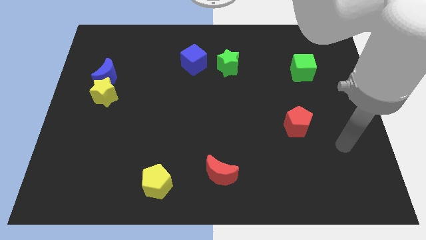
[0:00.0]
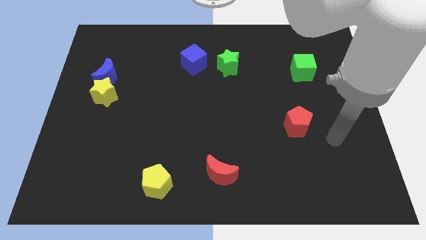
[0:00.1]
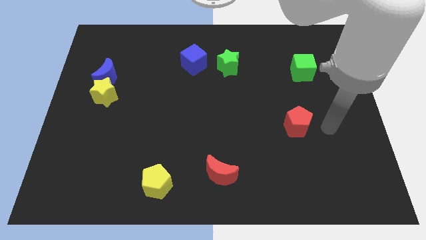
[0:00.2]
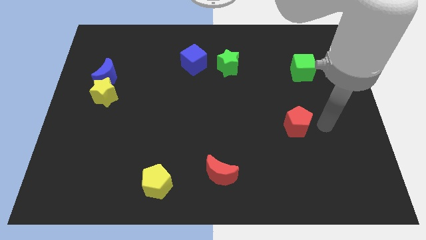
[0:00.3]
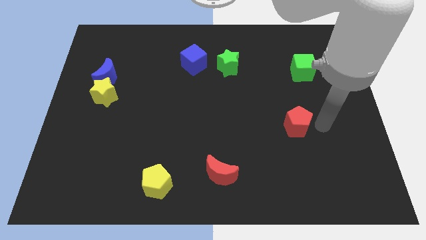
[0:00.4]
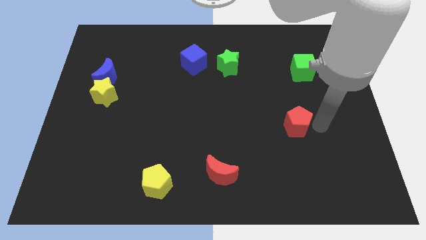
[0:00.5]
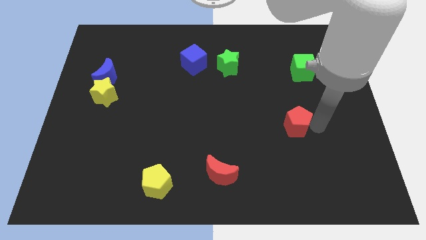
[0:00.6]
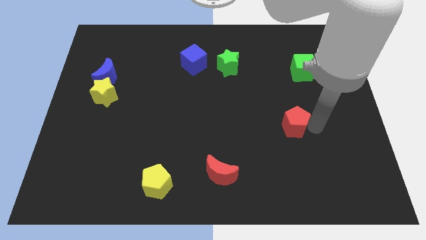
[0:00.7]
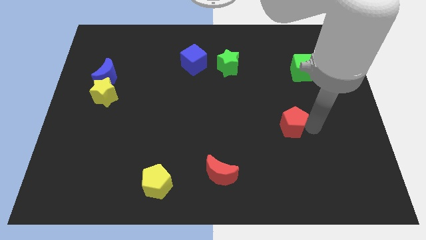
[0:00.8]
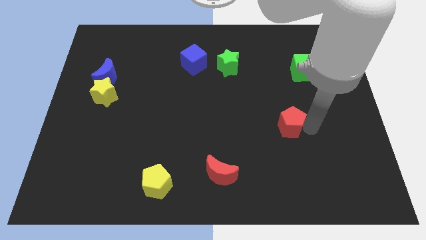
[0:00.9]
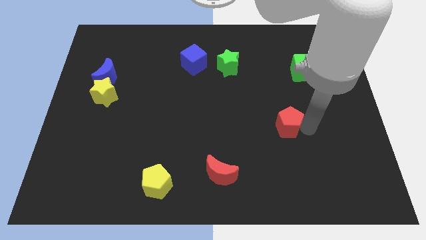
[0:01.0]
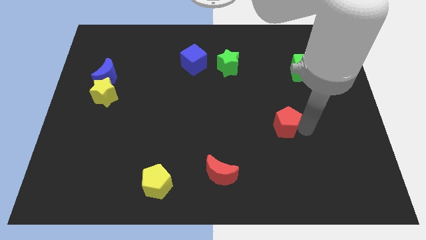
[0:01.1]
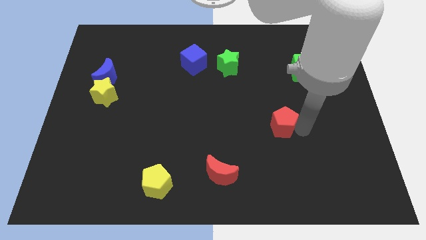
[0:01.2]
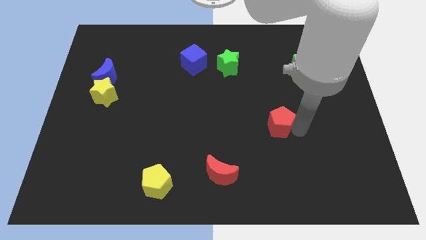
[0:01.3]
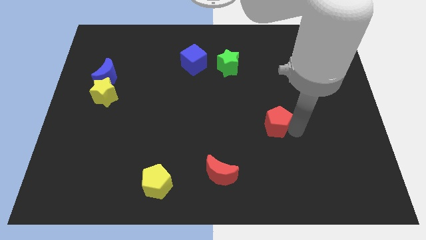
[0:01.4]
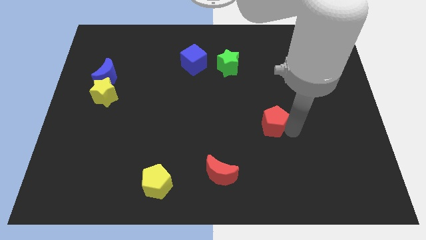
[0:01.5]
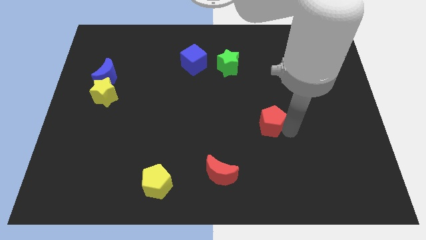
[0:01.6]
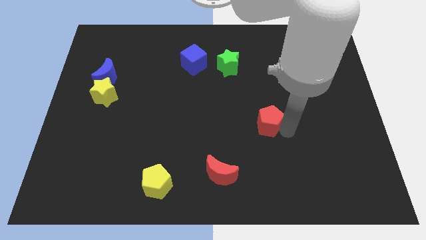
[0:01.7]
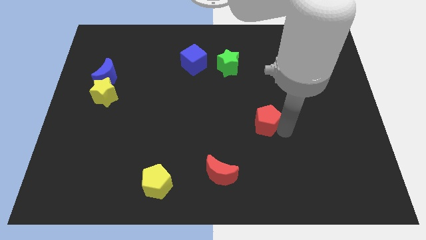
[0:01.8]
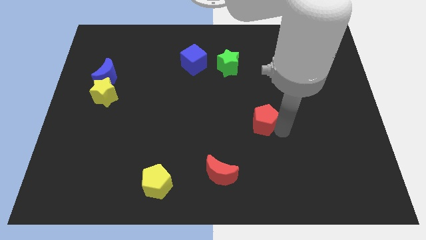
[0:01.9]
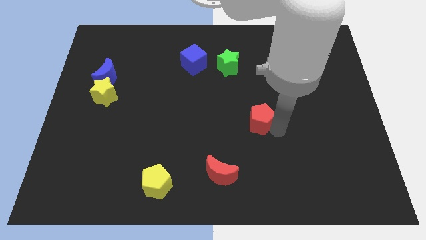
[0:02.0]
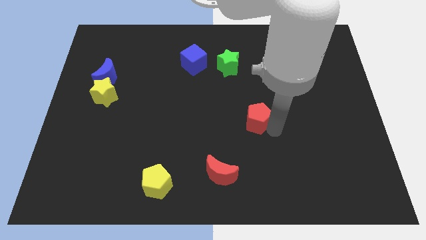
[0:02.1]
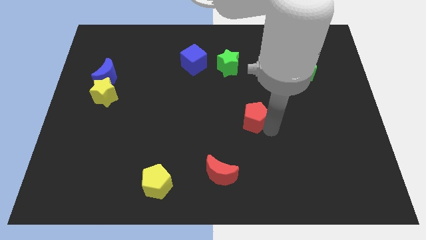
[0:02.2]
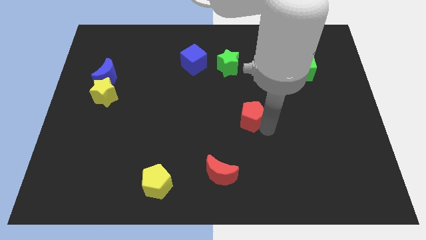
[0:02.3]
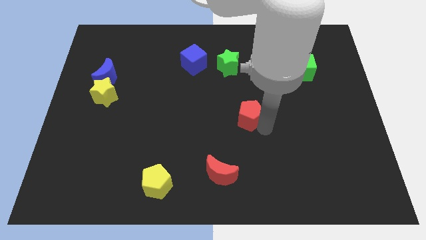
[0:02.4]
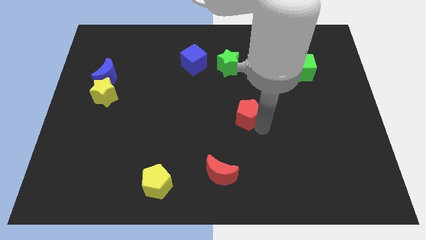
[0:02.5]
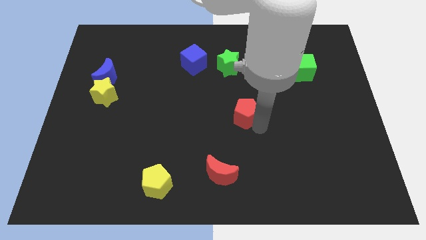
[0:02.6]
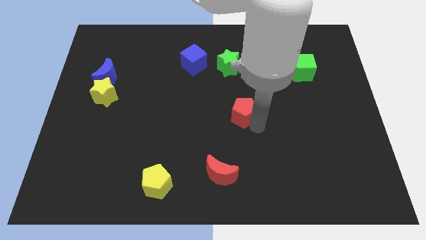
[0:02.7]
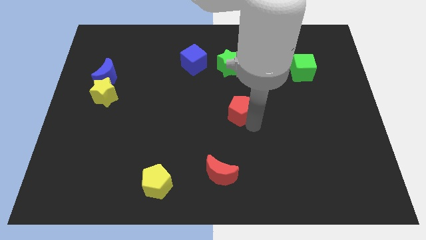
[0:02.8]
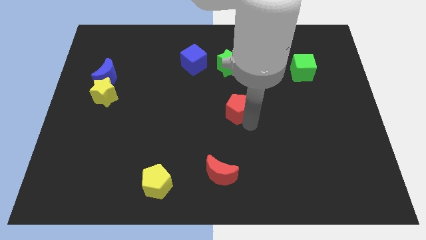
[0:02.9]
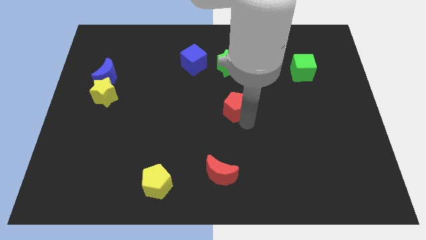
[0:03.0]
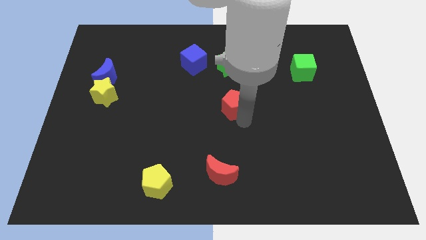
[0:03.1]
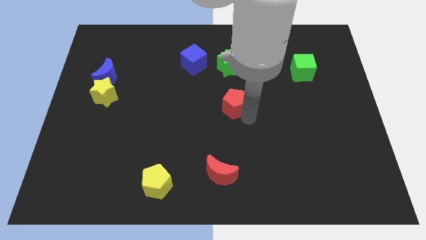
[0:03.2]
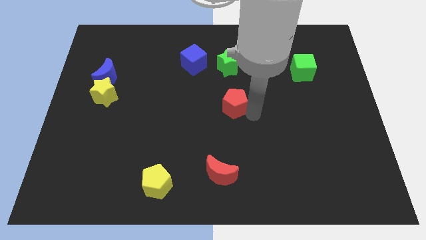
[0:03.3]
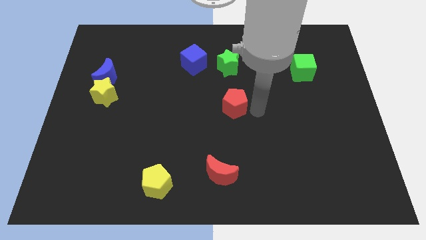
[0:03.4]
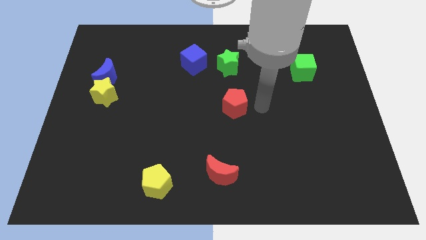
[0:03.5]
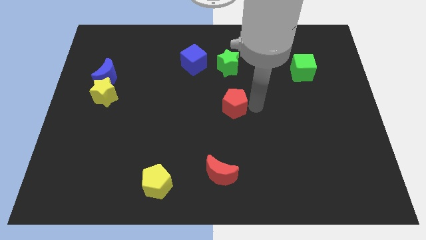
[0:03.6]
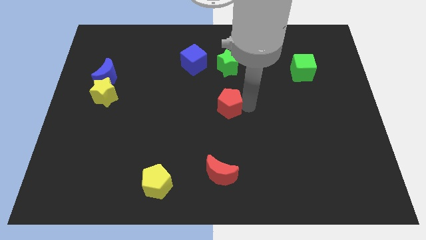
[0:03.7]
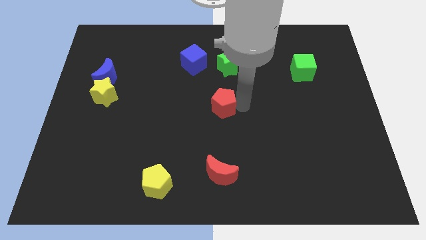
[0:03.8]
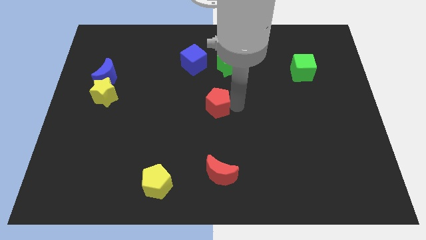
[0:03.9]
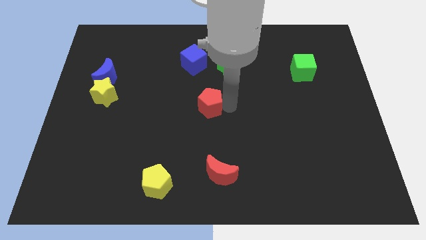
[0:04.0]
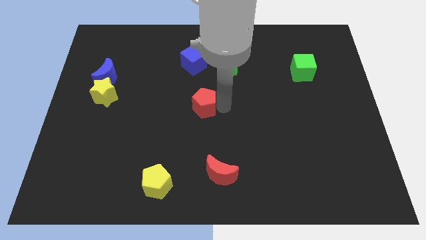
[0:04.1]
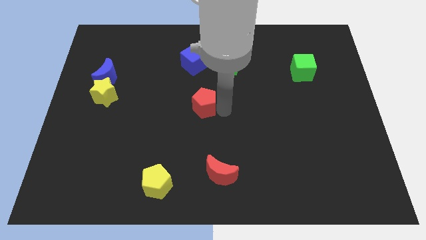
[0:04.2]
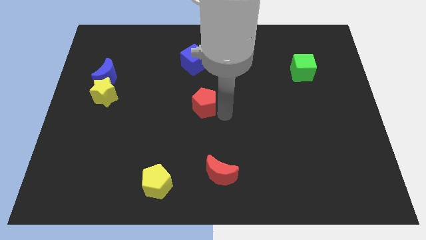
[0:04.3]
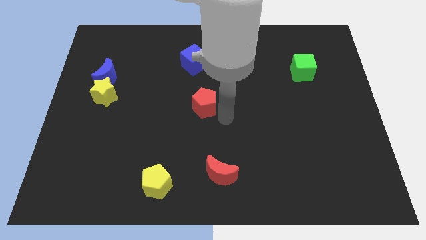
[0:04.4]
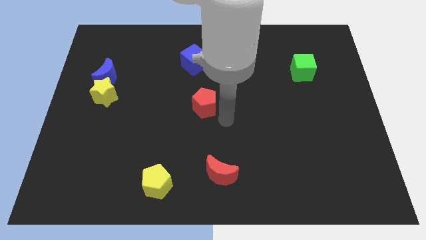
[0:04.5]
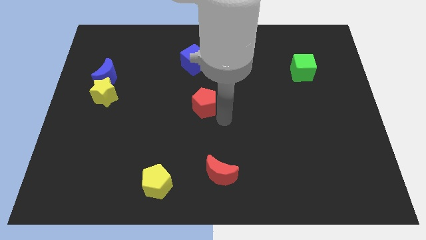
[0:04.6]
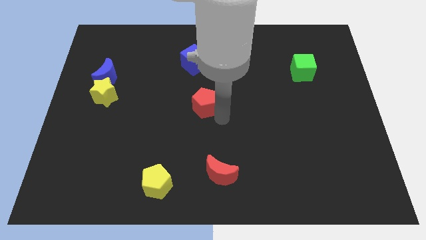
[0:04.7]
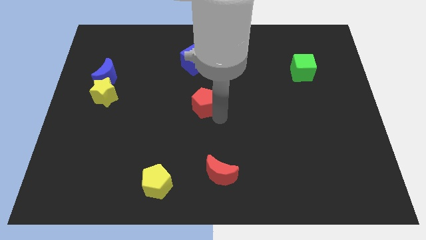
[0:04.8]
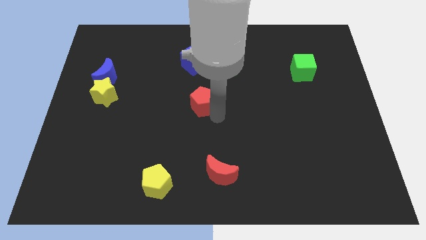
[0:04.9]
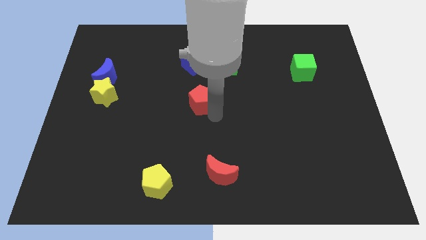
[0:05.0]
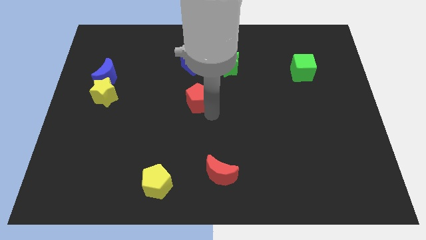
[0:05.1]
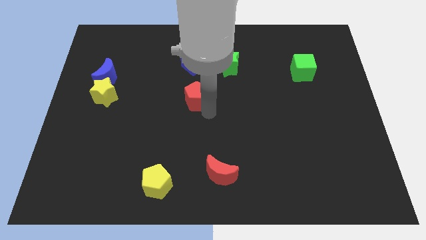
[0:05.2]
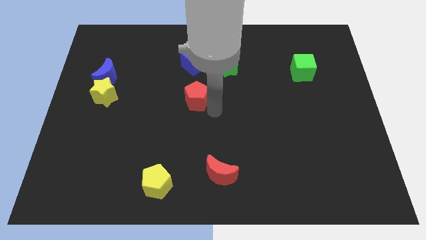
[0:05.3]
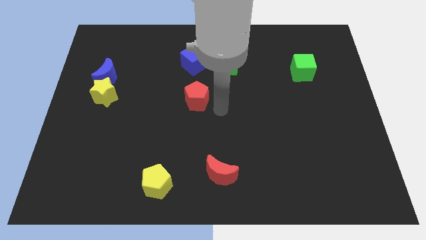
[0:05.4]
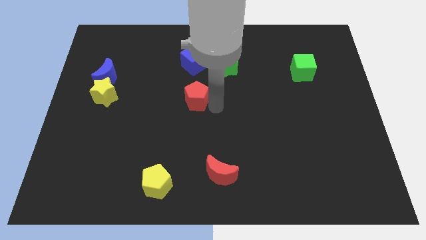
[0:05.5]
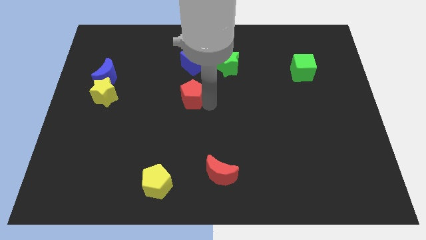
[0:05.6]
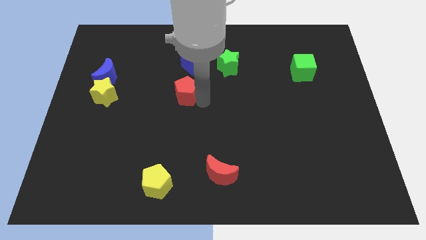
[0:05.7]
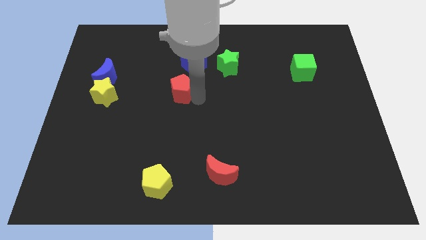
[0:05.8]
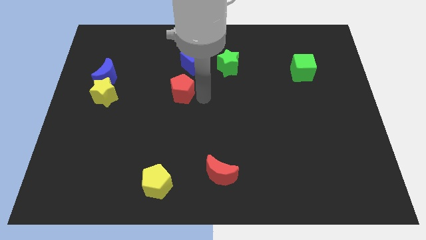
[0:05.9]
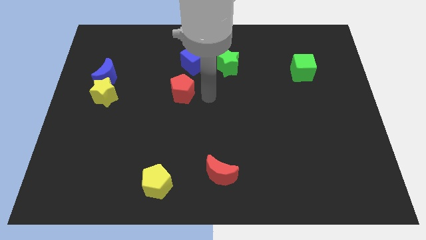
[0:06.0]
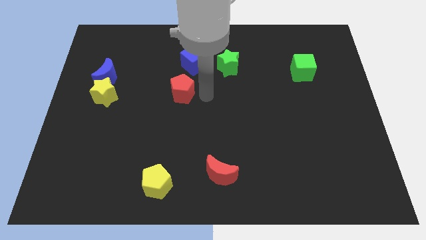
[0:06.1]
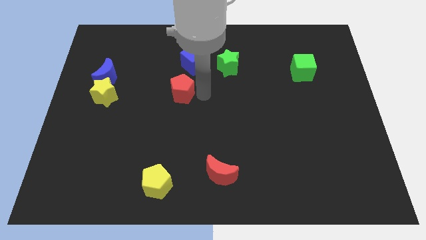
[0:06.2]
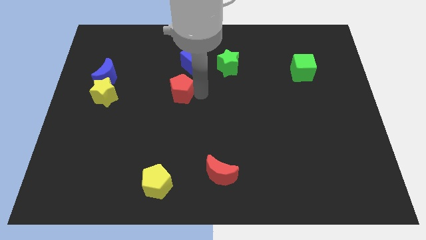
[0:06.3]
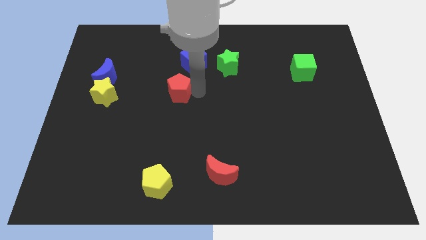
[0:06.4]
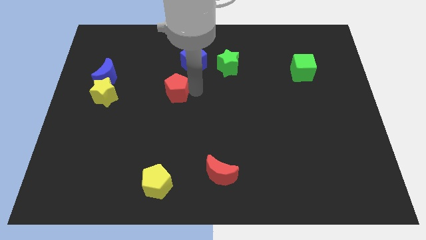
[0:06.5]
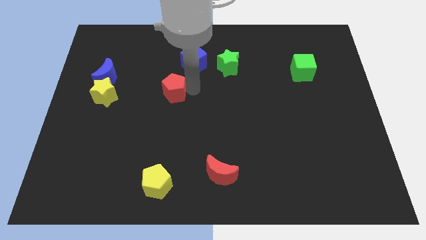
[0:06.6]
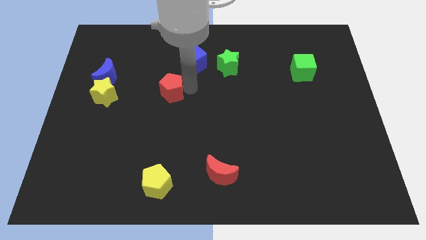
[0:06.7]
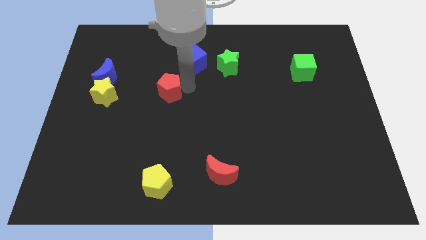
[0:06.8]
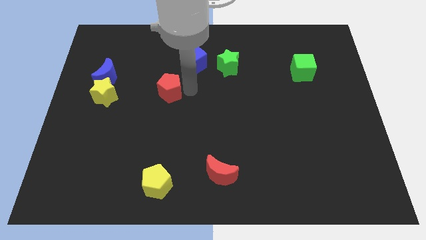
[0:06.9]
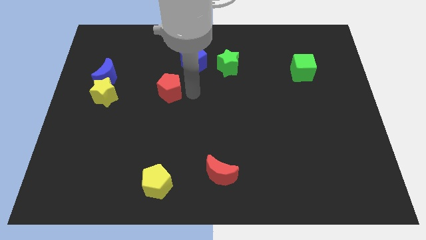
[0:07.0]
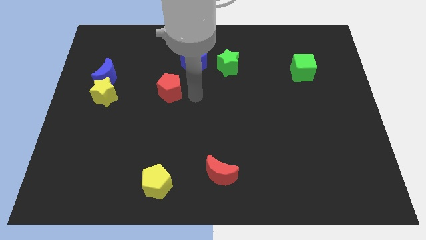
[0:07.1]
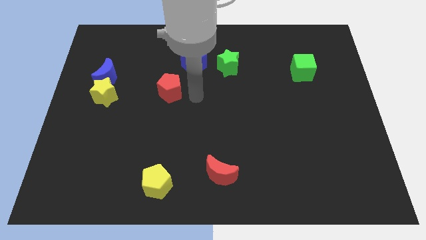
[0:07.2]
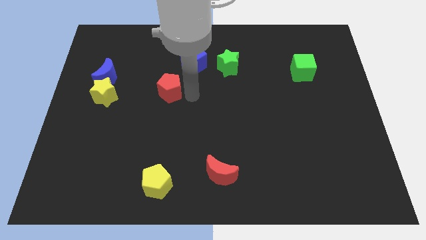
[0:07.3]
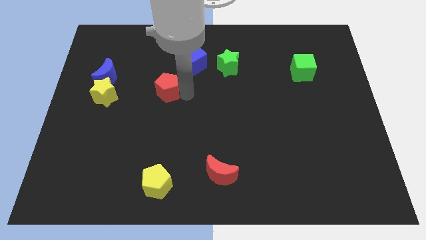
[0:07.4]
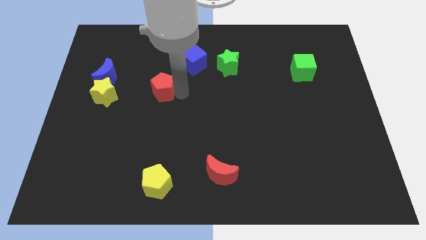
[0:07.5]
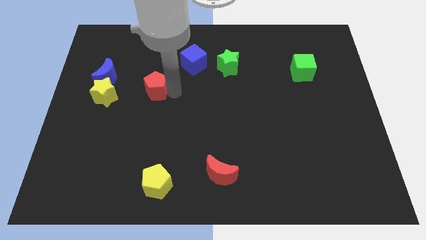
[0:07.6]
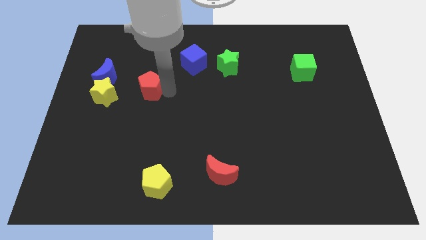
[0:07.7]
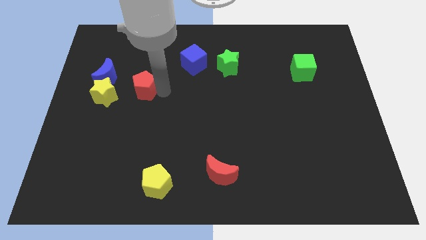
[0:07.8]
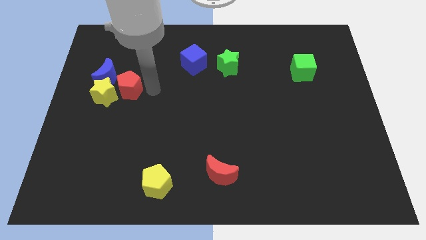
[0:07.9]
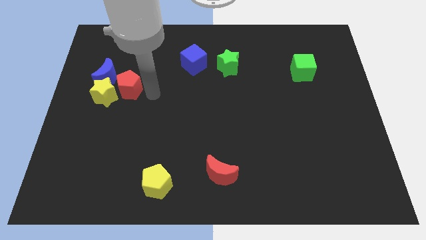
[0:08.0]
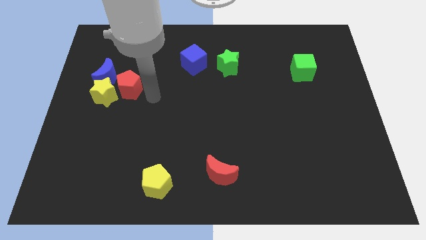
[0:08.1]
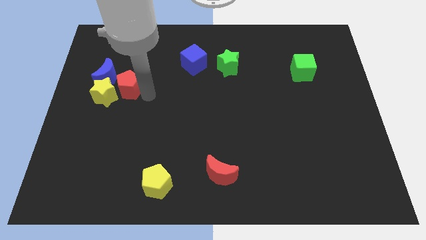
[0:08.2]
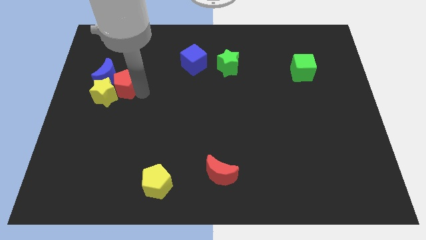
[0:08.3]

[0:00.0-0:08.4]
put the red pentagon towards the blue moon
